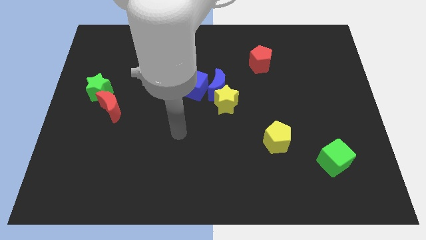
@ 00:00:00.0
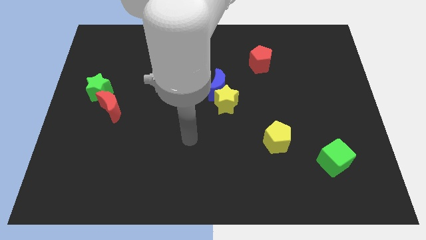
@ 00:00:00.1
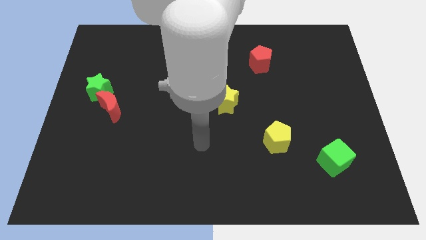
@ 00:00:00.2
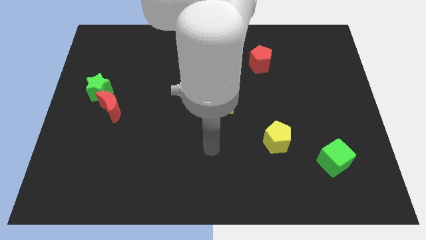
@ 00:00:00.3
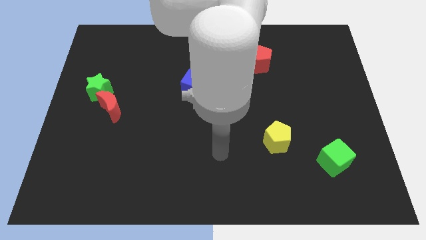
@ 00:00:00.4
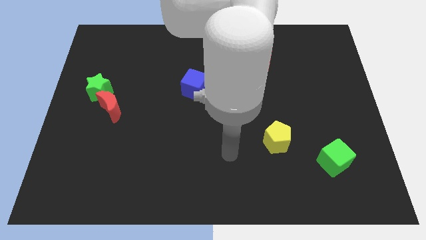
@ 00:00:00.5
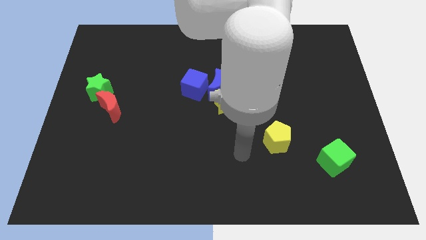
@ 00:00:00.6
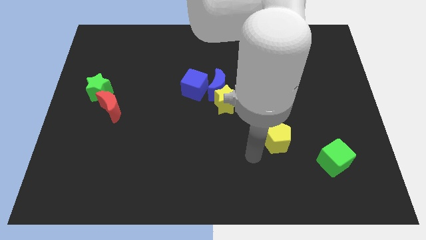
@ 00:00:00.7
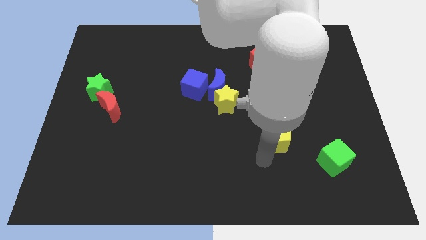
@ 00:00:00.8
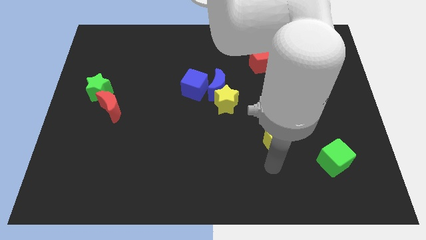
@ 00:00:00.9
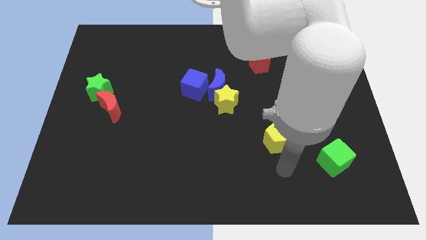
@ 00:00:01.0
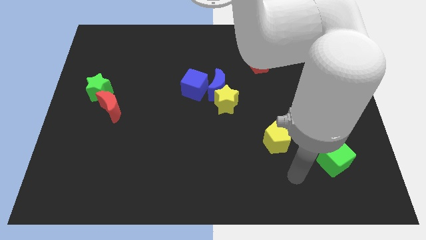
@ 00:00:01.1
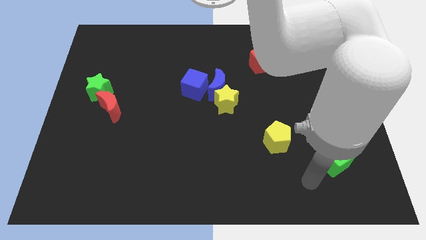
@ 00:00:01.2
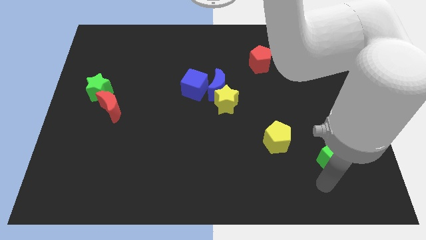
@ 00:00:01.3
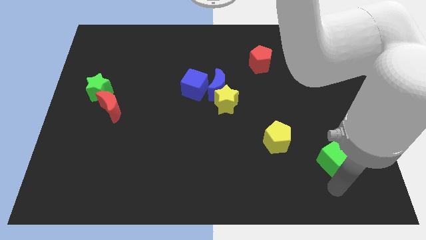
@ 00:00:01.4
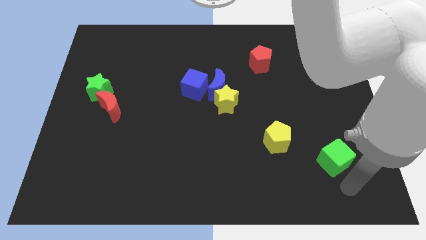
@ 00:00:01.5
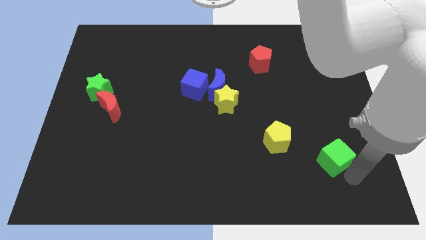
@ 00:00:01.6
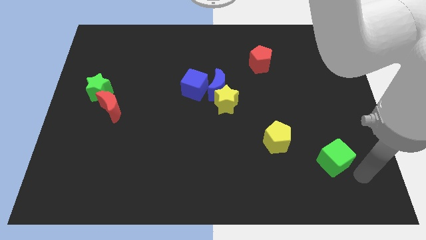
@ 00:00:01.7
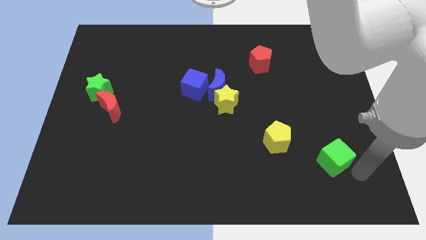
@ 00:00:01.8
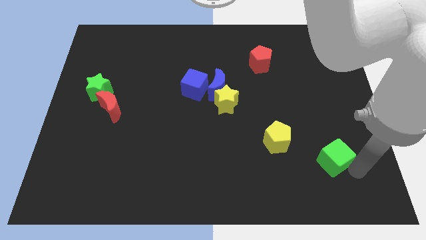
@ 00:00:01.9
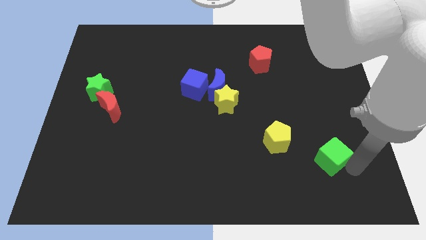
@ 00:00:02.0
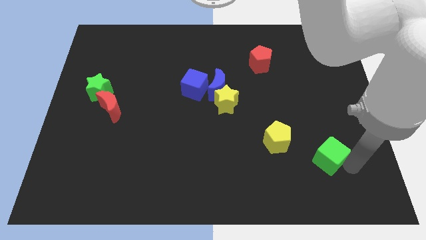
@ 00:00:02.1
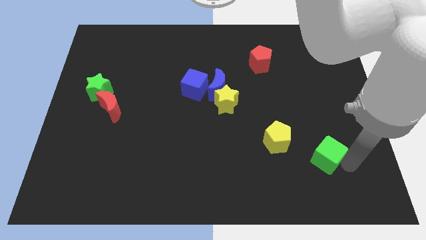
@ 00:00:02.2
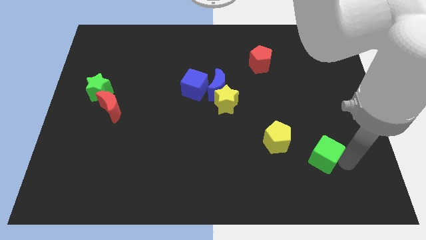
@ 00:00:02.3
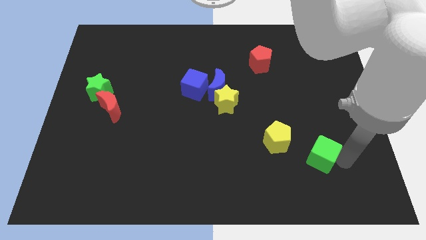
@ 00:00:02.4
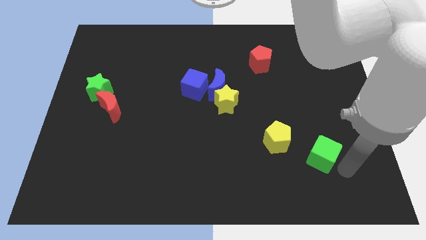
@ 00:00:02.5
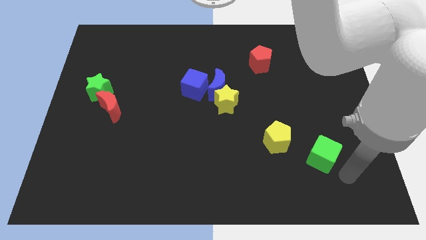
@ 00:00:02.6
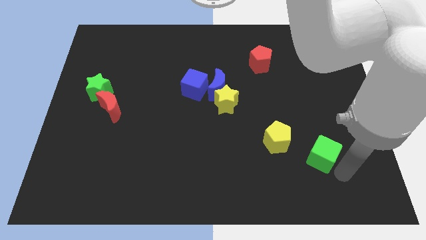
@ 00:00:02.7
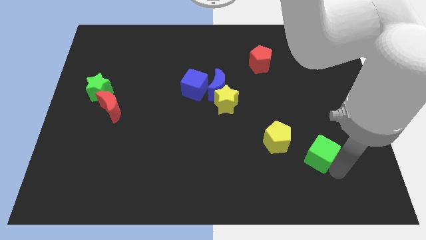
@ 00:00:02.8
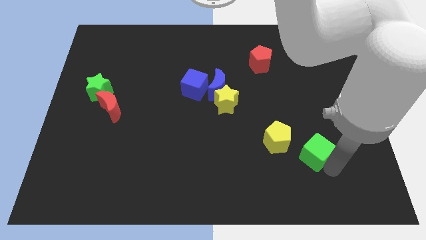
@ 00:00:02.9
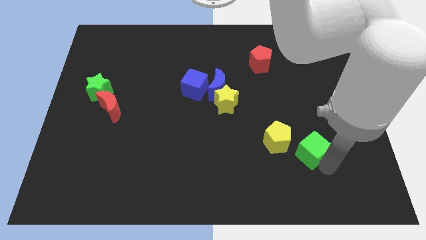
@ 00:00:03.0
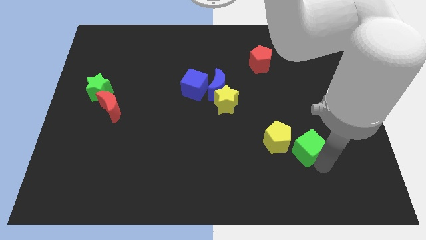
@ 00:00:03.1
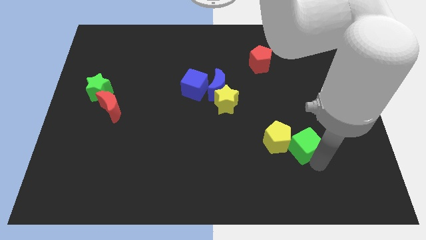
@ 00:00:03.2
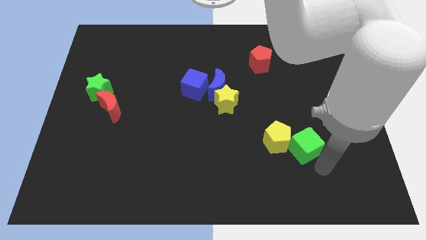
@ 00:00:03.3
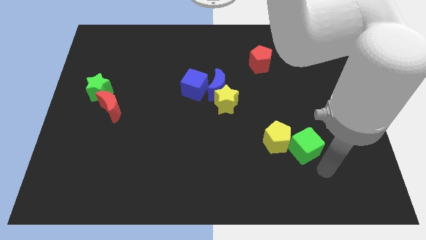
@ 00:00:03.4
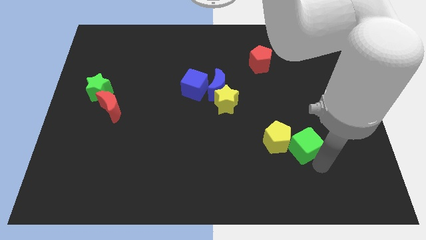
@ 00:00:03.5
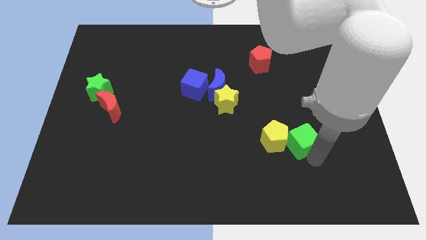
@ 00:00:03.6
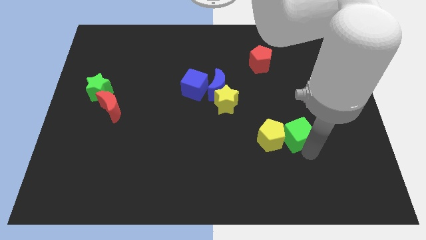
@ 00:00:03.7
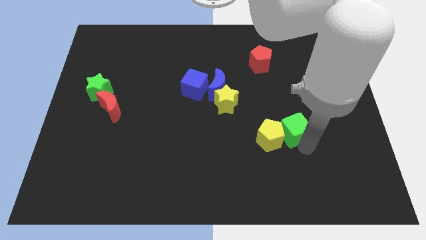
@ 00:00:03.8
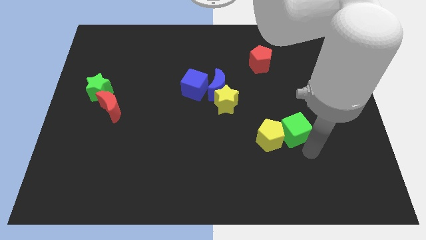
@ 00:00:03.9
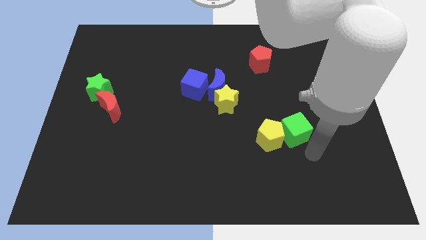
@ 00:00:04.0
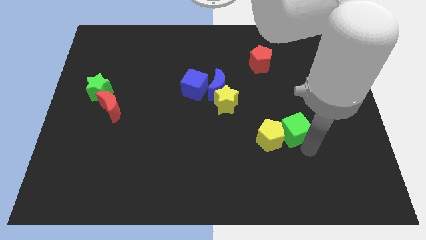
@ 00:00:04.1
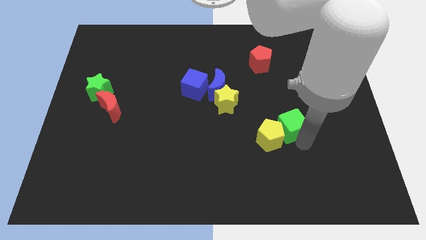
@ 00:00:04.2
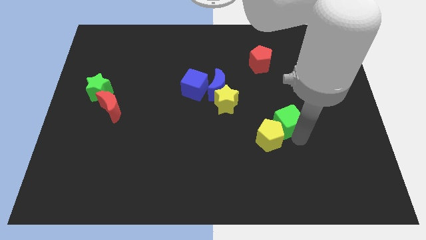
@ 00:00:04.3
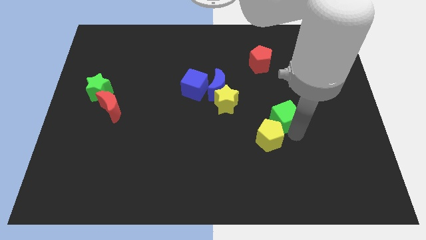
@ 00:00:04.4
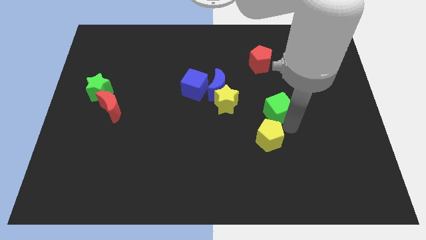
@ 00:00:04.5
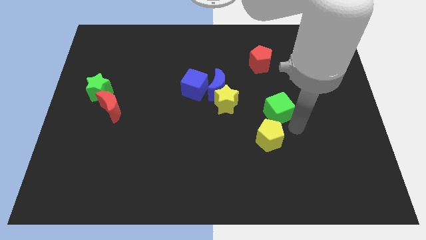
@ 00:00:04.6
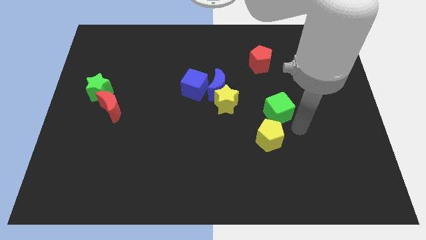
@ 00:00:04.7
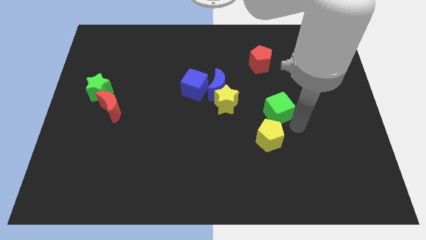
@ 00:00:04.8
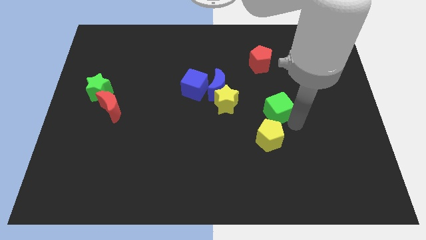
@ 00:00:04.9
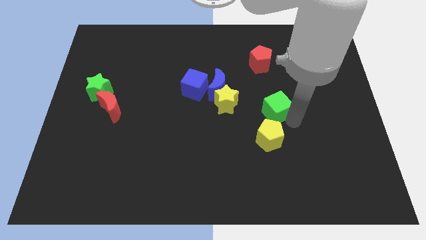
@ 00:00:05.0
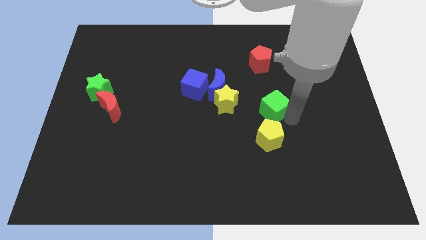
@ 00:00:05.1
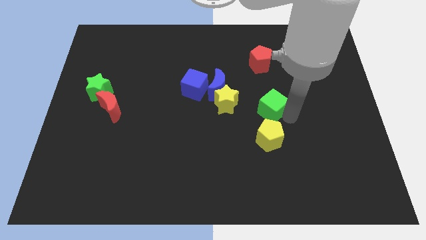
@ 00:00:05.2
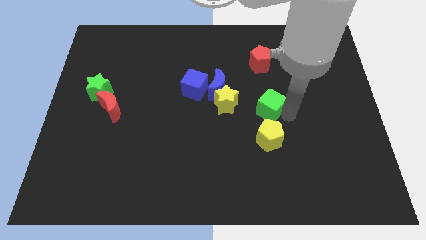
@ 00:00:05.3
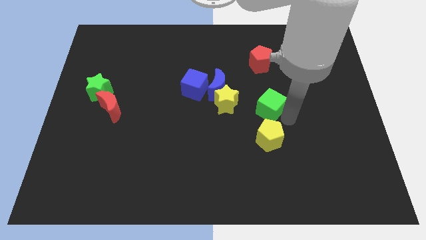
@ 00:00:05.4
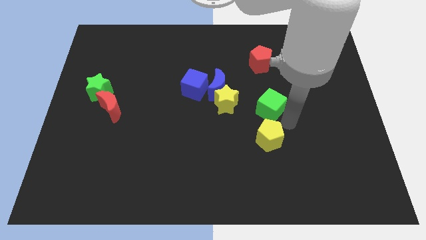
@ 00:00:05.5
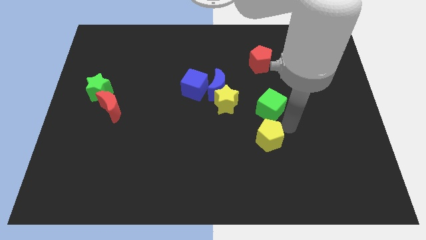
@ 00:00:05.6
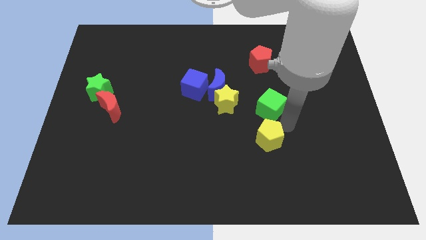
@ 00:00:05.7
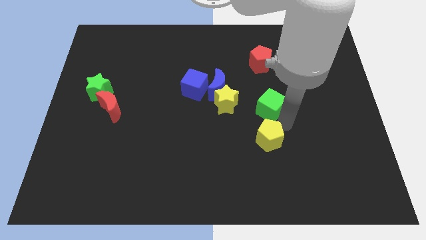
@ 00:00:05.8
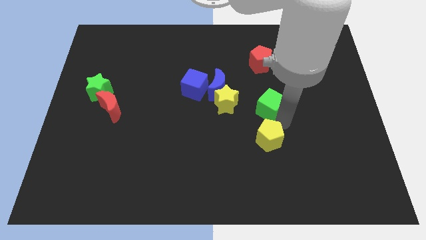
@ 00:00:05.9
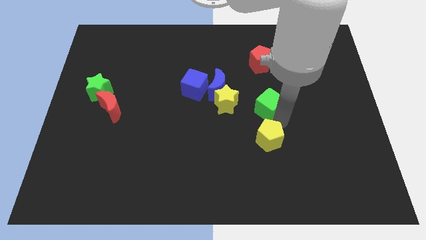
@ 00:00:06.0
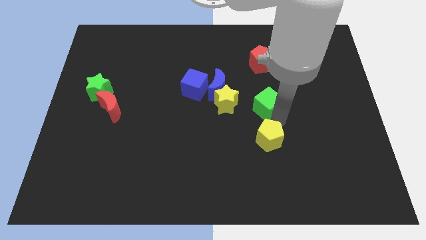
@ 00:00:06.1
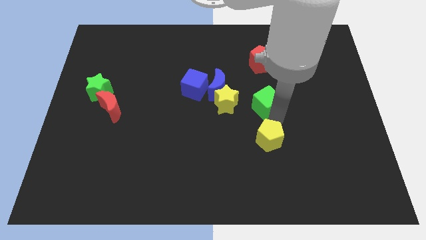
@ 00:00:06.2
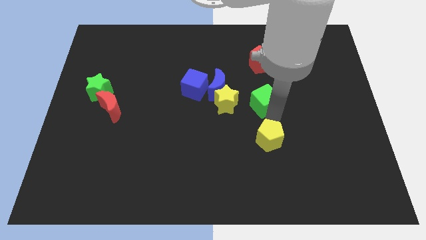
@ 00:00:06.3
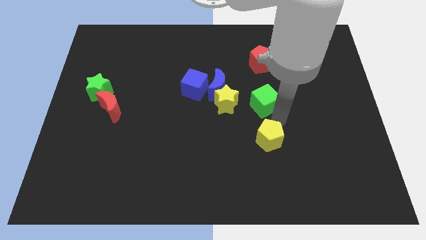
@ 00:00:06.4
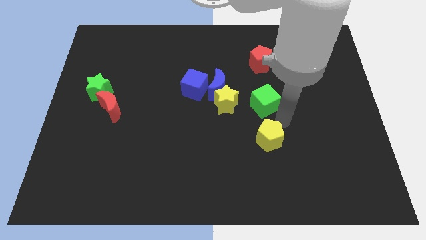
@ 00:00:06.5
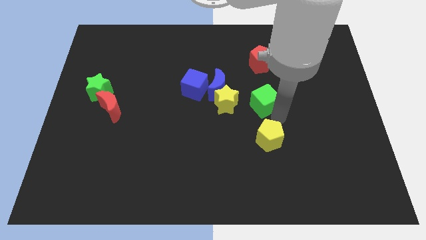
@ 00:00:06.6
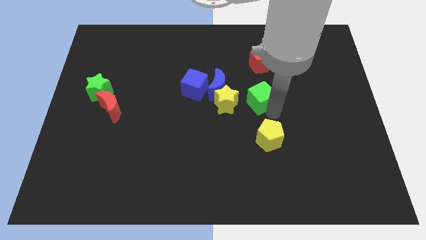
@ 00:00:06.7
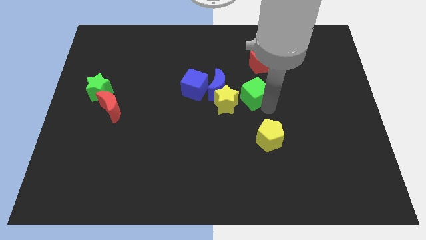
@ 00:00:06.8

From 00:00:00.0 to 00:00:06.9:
slide the green cube to the top right side of the yellow star

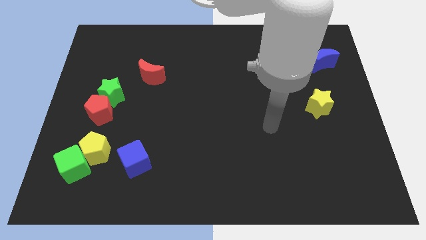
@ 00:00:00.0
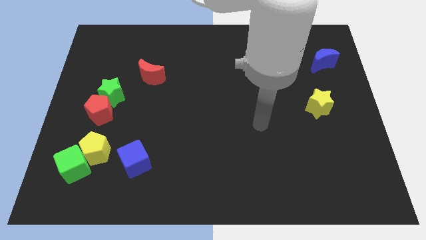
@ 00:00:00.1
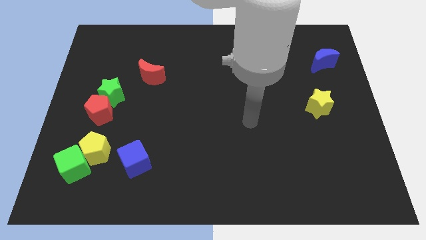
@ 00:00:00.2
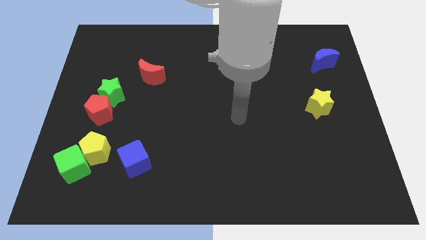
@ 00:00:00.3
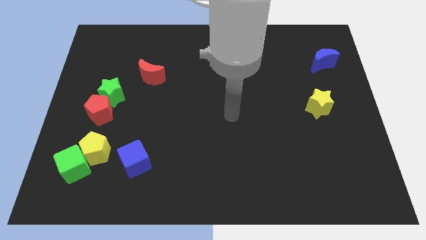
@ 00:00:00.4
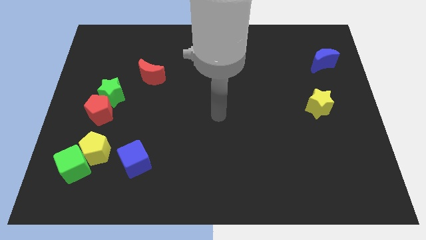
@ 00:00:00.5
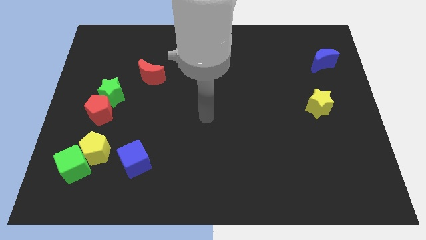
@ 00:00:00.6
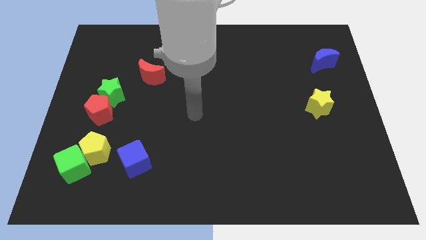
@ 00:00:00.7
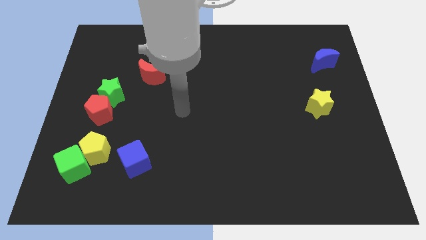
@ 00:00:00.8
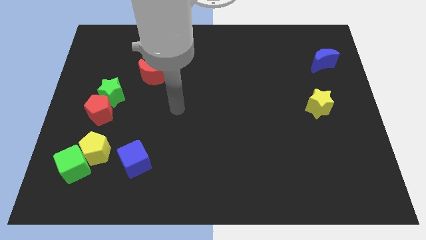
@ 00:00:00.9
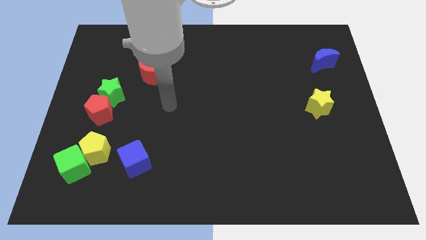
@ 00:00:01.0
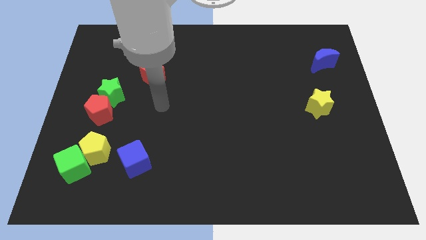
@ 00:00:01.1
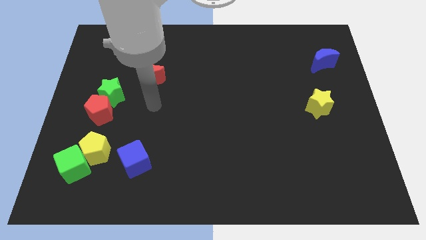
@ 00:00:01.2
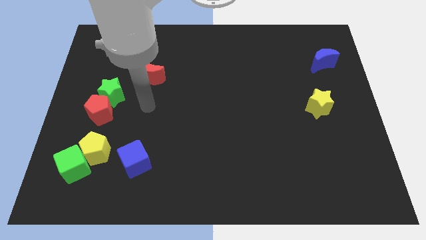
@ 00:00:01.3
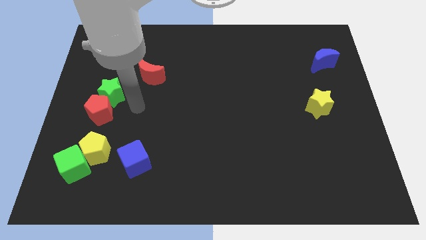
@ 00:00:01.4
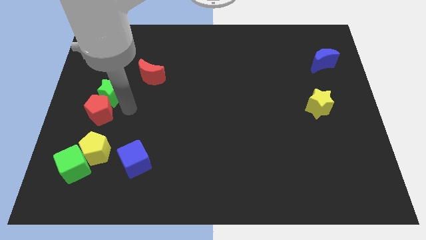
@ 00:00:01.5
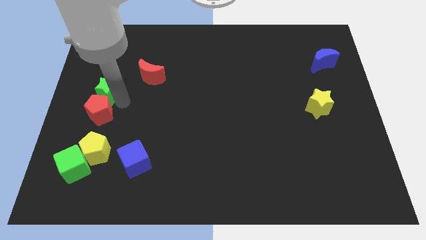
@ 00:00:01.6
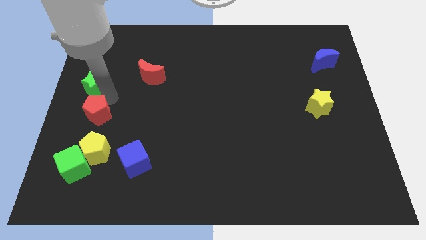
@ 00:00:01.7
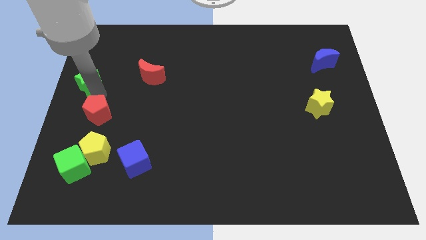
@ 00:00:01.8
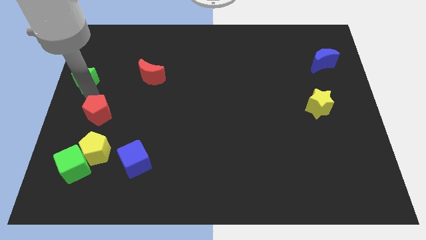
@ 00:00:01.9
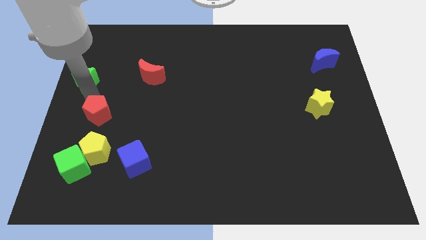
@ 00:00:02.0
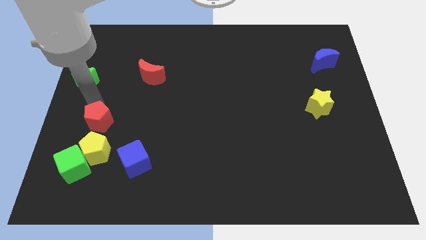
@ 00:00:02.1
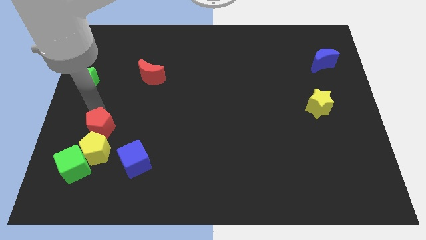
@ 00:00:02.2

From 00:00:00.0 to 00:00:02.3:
put the red pentagon diagonally up and to the left of the blue cube
